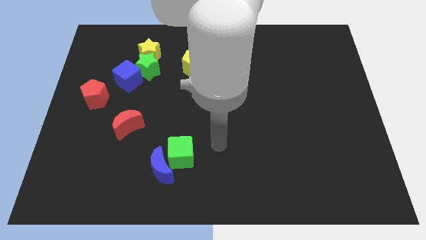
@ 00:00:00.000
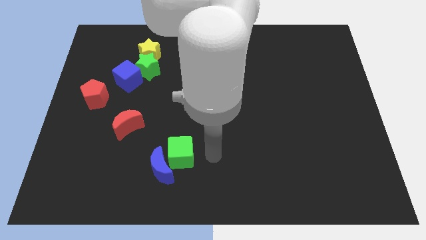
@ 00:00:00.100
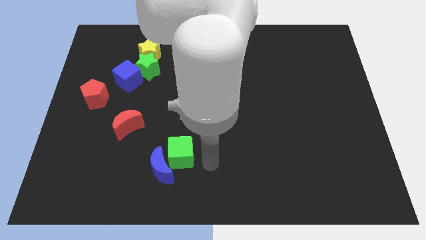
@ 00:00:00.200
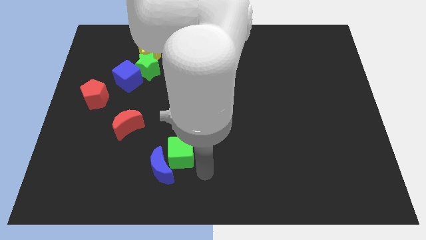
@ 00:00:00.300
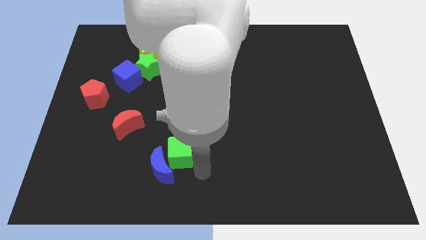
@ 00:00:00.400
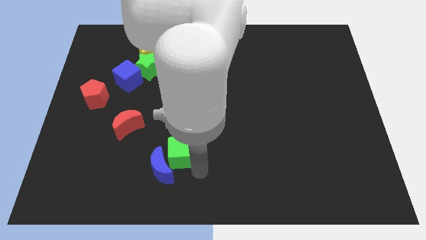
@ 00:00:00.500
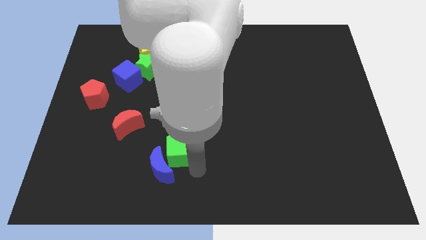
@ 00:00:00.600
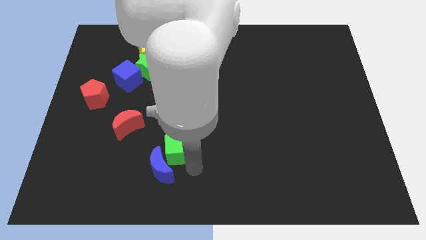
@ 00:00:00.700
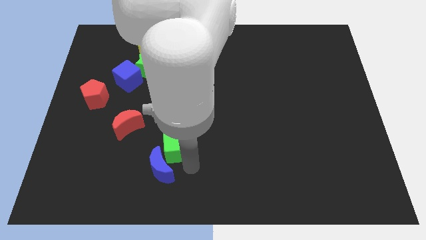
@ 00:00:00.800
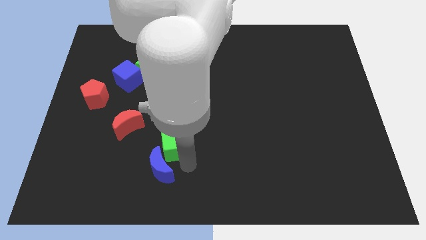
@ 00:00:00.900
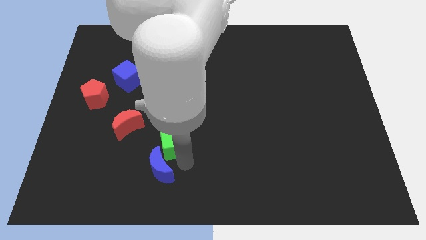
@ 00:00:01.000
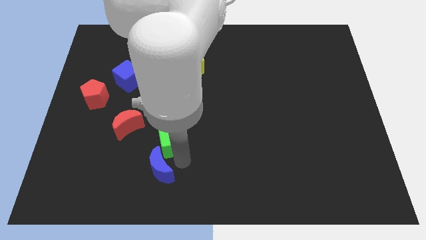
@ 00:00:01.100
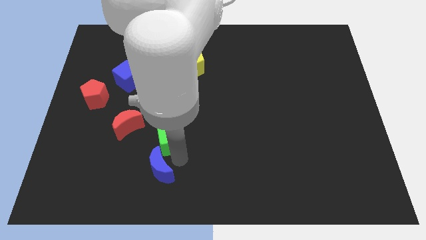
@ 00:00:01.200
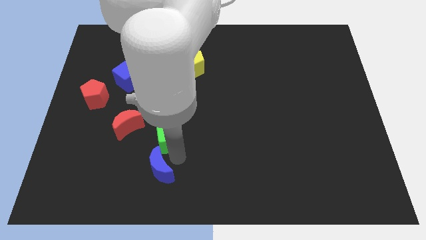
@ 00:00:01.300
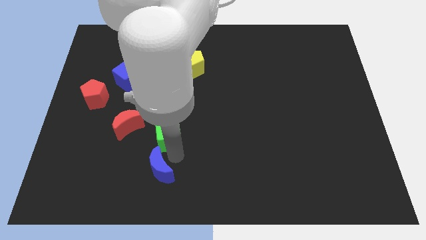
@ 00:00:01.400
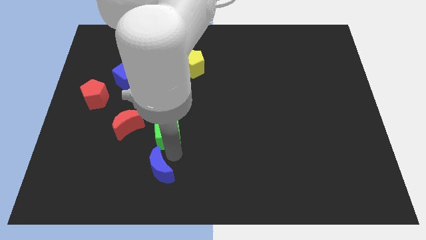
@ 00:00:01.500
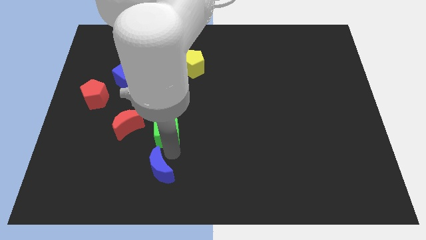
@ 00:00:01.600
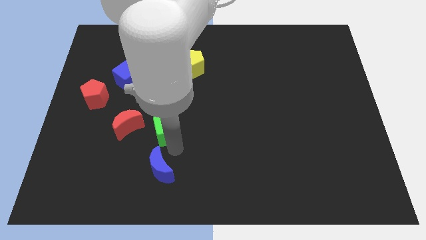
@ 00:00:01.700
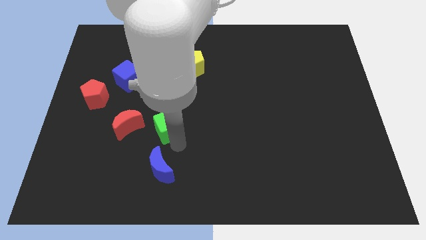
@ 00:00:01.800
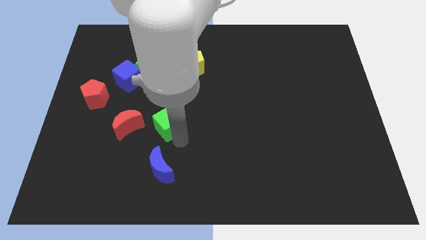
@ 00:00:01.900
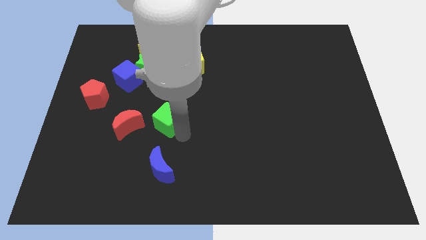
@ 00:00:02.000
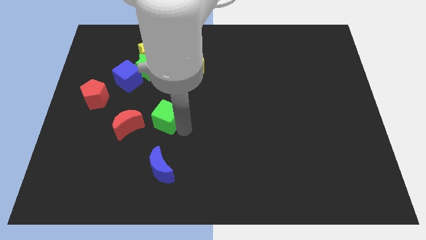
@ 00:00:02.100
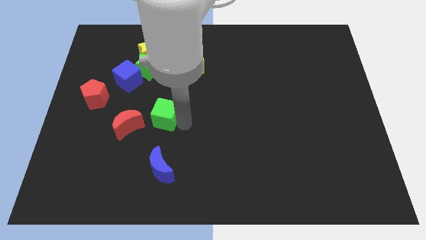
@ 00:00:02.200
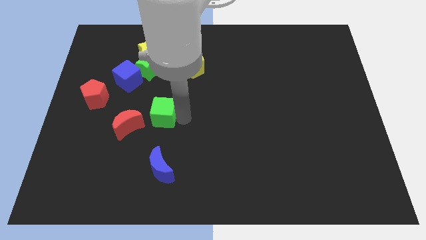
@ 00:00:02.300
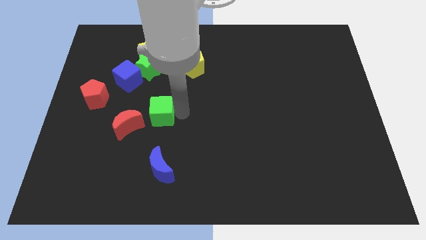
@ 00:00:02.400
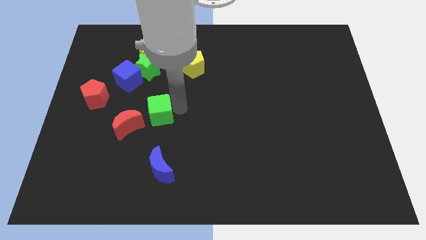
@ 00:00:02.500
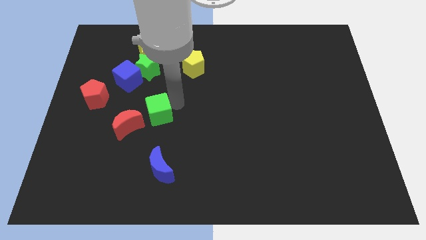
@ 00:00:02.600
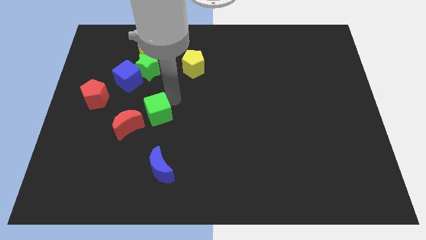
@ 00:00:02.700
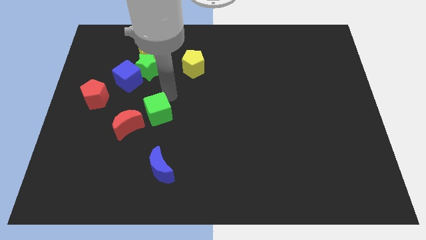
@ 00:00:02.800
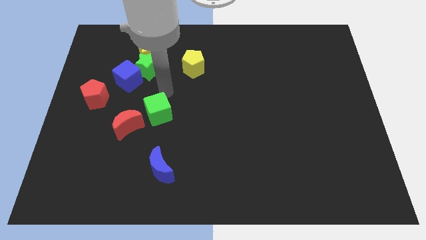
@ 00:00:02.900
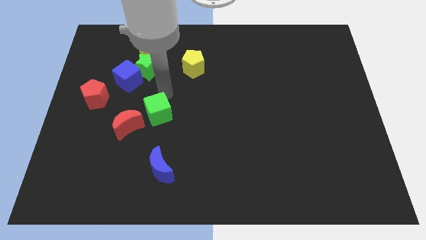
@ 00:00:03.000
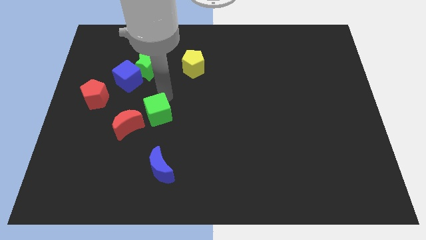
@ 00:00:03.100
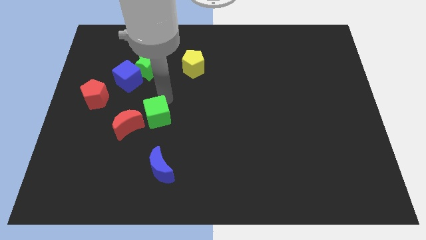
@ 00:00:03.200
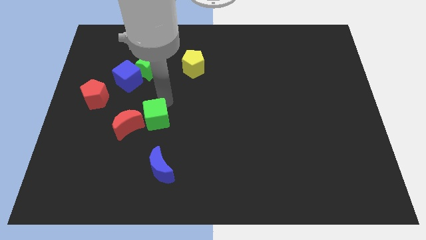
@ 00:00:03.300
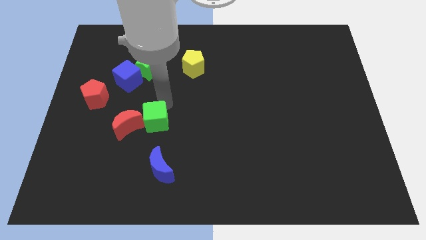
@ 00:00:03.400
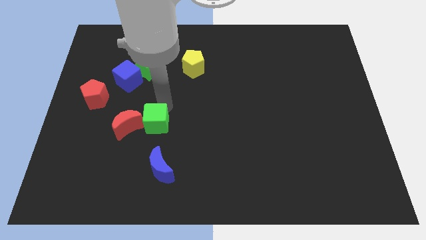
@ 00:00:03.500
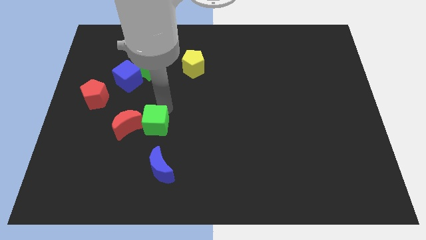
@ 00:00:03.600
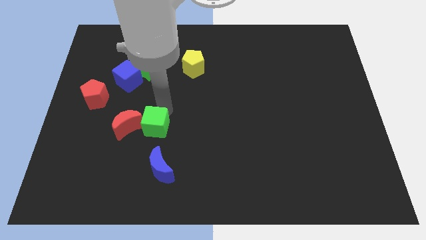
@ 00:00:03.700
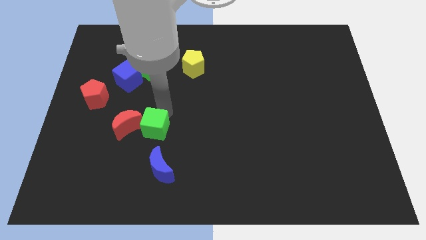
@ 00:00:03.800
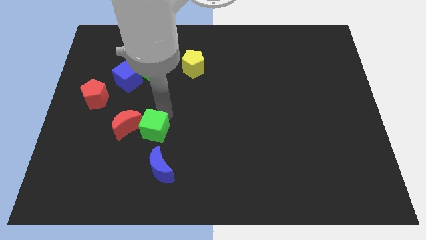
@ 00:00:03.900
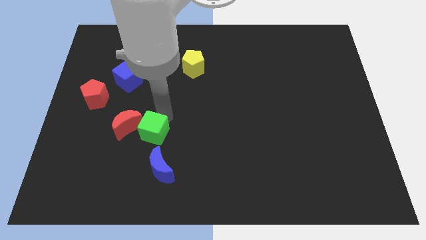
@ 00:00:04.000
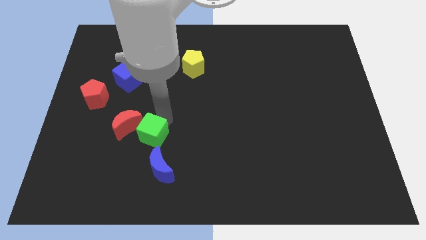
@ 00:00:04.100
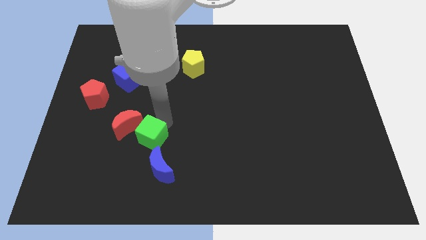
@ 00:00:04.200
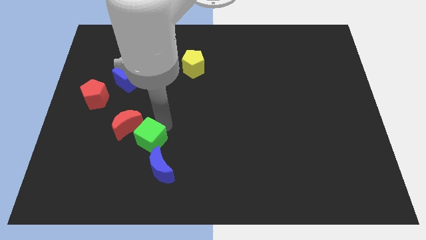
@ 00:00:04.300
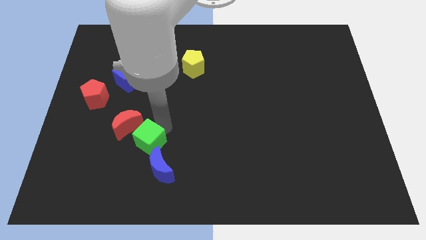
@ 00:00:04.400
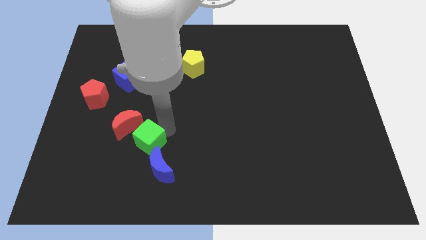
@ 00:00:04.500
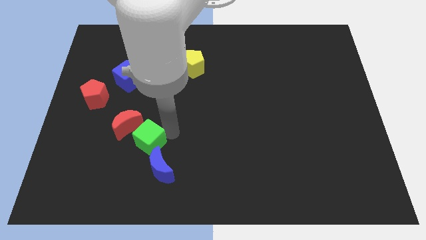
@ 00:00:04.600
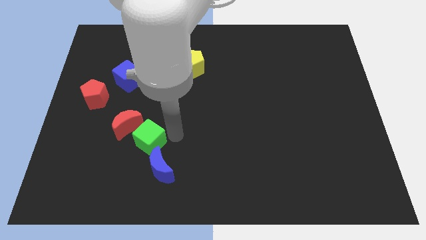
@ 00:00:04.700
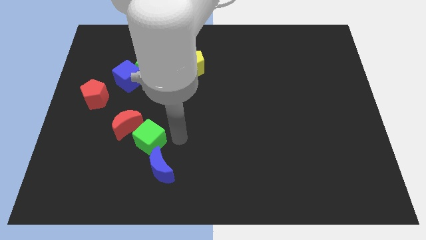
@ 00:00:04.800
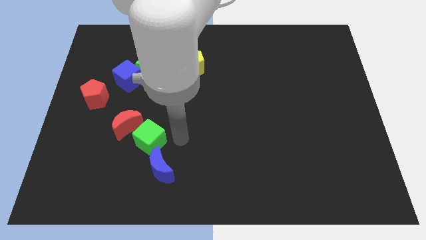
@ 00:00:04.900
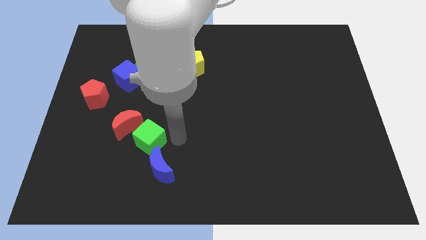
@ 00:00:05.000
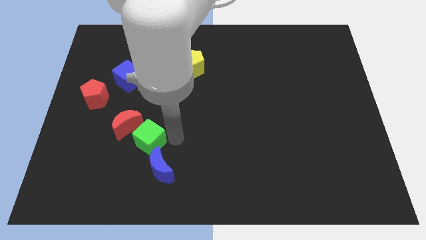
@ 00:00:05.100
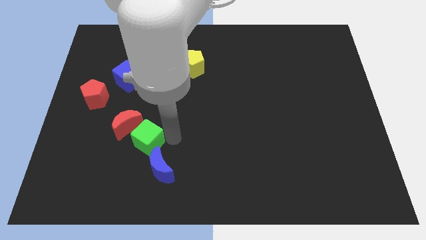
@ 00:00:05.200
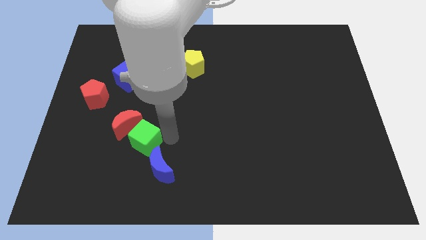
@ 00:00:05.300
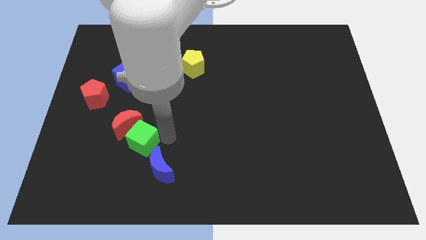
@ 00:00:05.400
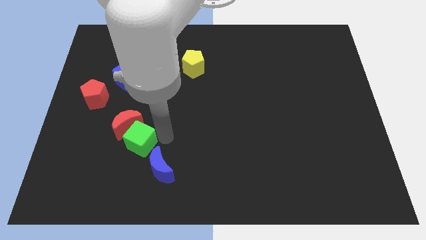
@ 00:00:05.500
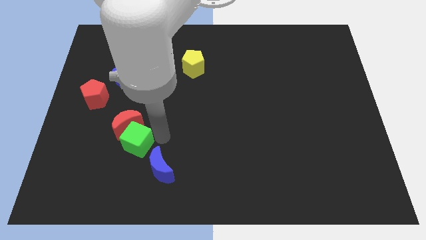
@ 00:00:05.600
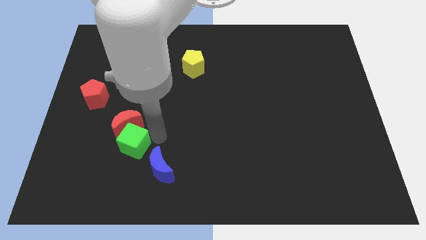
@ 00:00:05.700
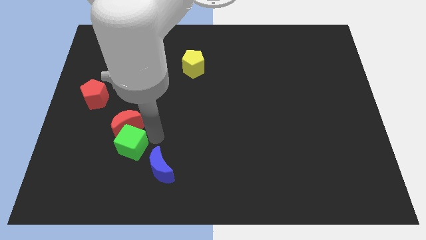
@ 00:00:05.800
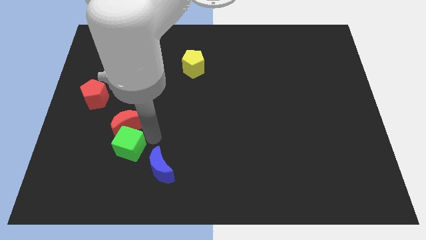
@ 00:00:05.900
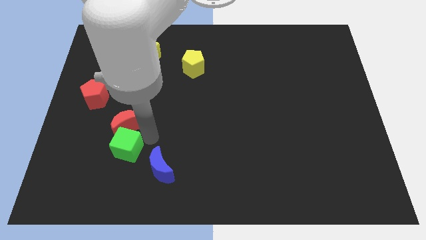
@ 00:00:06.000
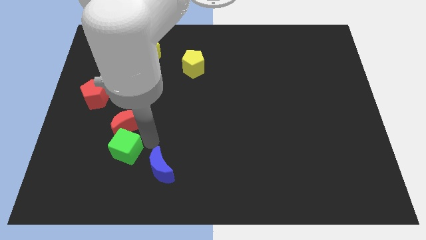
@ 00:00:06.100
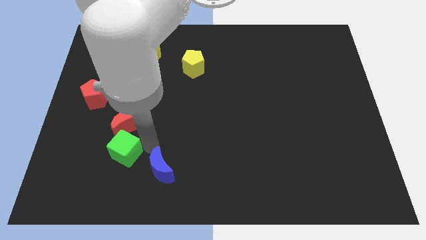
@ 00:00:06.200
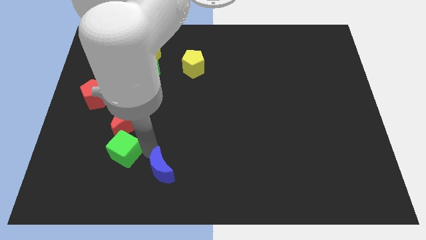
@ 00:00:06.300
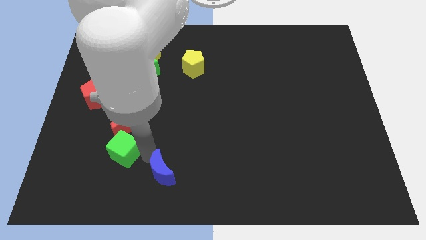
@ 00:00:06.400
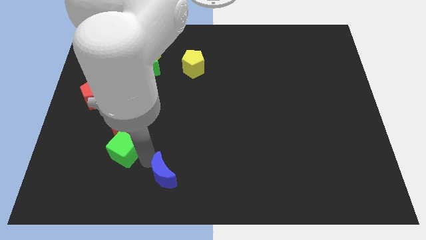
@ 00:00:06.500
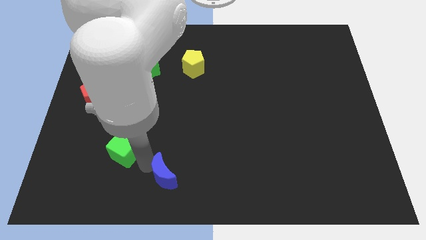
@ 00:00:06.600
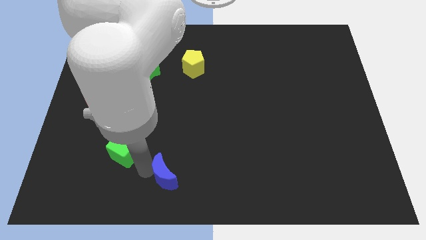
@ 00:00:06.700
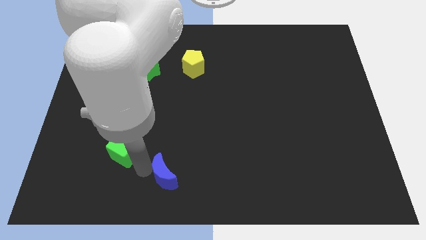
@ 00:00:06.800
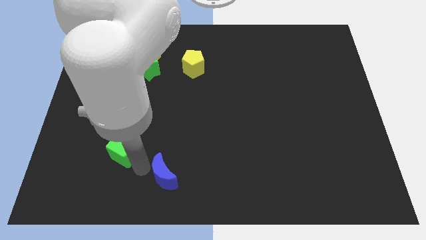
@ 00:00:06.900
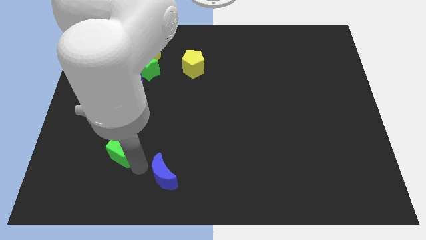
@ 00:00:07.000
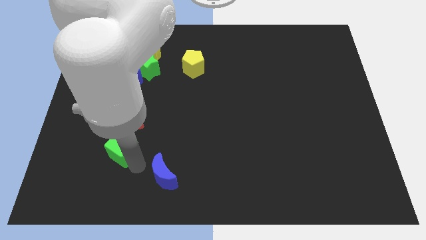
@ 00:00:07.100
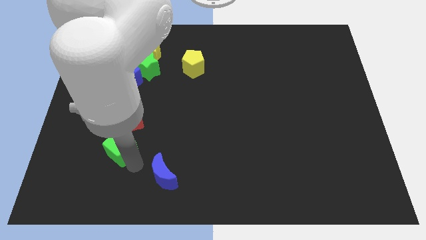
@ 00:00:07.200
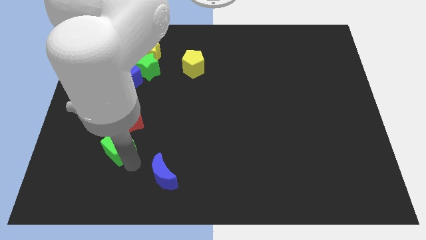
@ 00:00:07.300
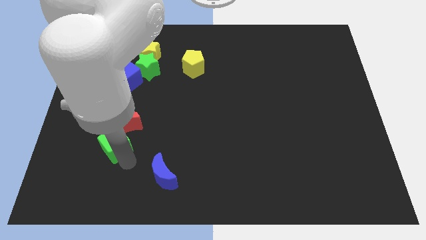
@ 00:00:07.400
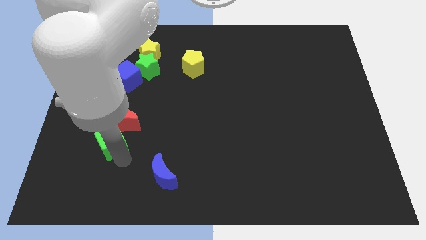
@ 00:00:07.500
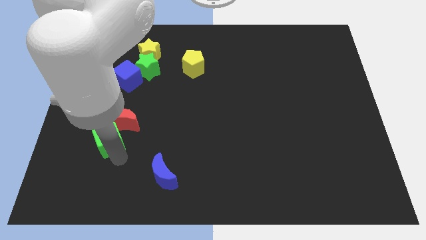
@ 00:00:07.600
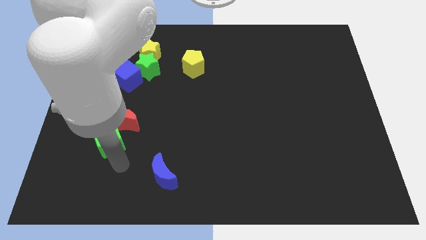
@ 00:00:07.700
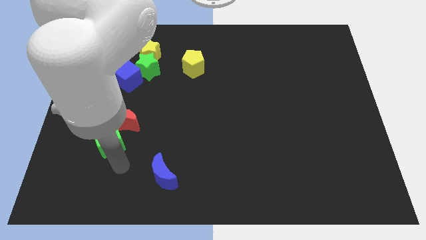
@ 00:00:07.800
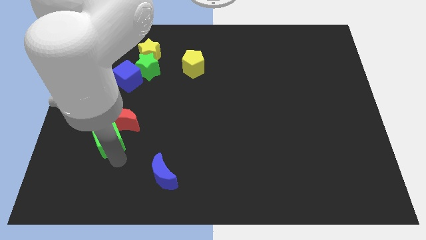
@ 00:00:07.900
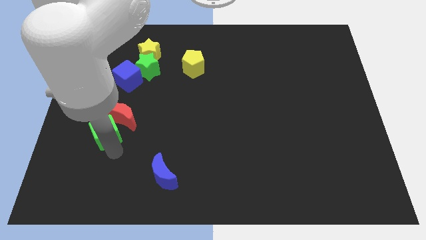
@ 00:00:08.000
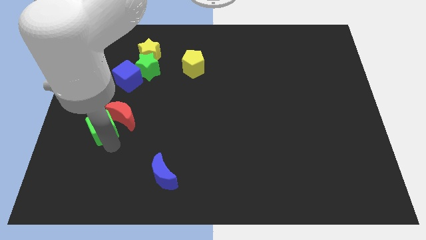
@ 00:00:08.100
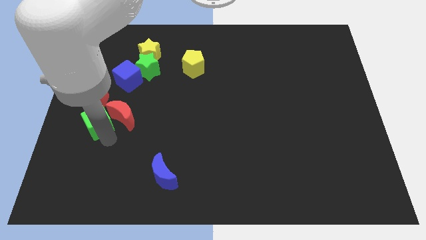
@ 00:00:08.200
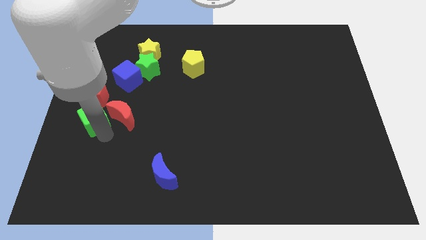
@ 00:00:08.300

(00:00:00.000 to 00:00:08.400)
move the green cube to the left side
